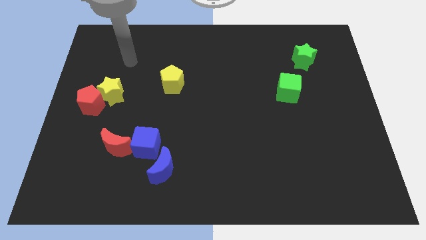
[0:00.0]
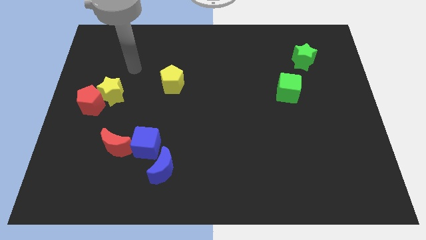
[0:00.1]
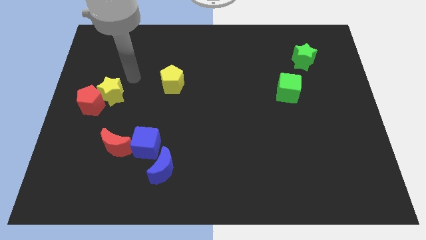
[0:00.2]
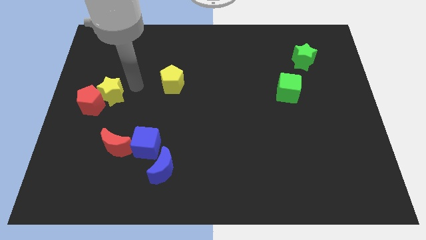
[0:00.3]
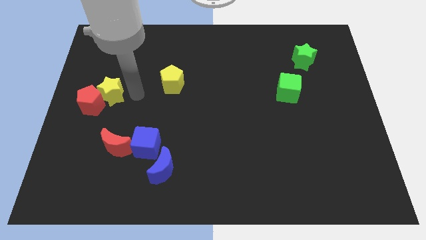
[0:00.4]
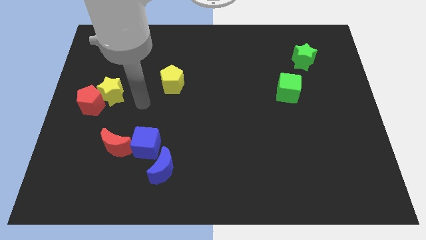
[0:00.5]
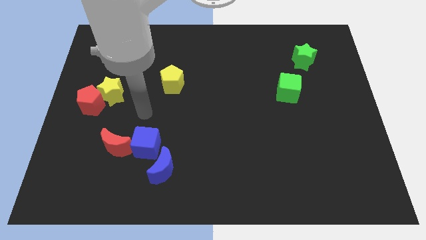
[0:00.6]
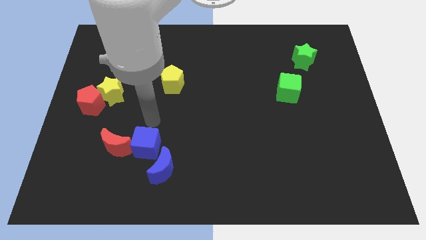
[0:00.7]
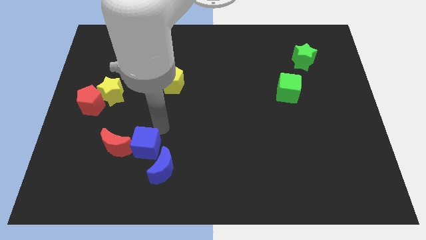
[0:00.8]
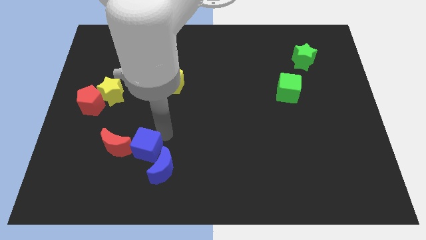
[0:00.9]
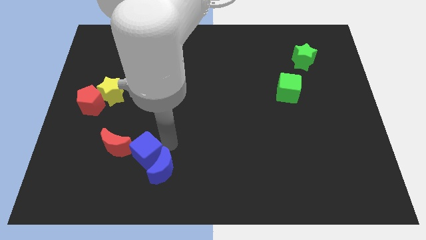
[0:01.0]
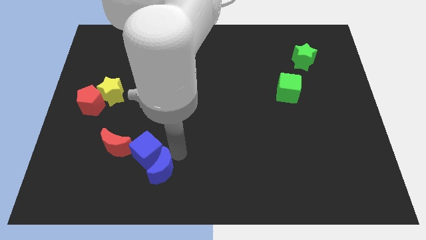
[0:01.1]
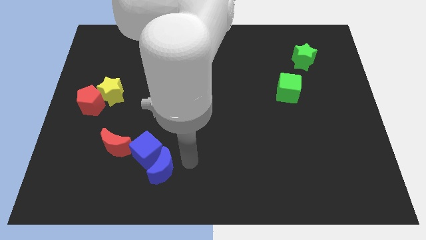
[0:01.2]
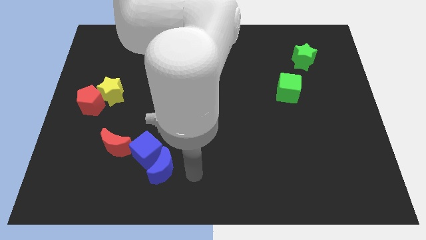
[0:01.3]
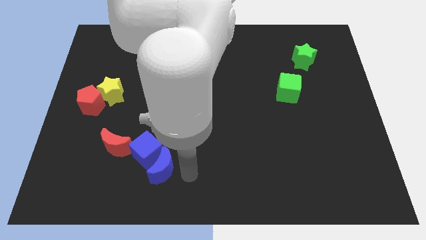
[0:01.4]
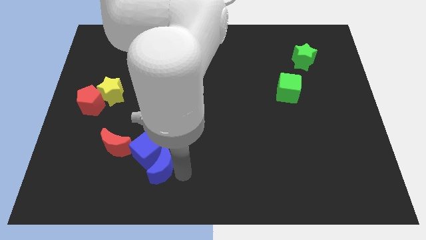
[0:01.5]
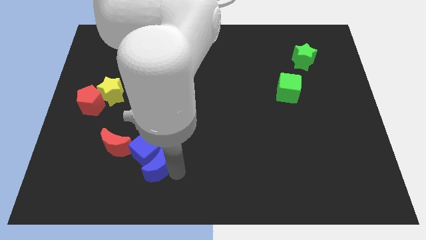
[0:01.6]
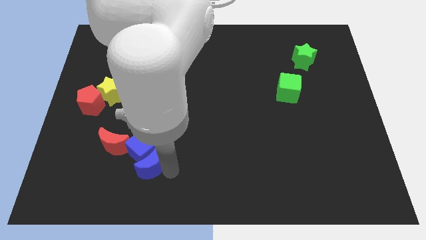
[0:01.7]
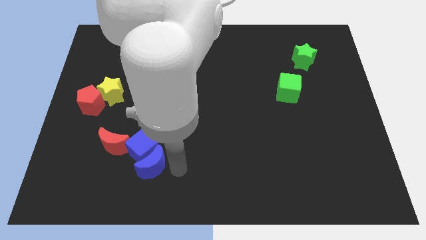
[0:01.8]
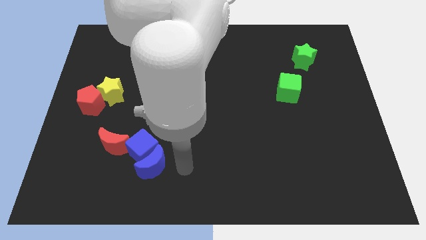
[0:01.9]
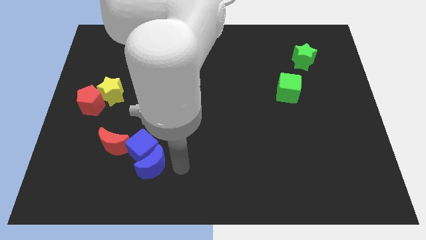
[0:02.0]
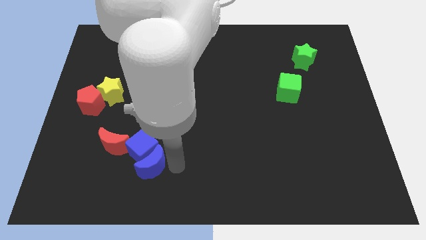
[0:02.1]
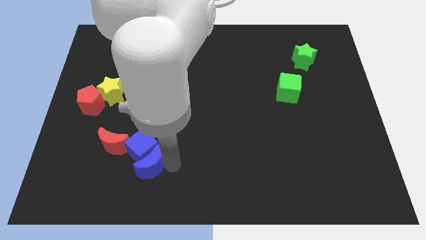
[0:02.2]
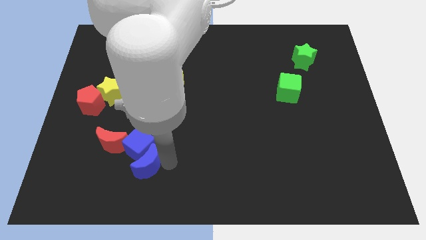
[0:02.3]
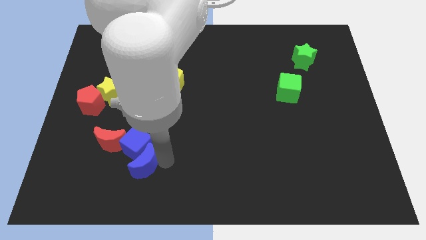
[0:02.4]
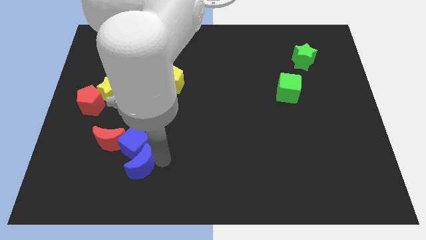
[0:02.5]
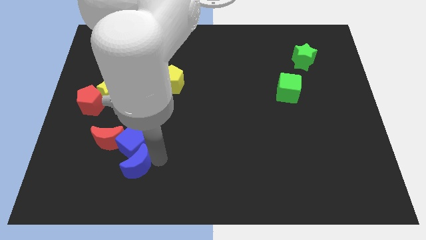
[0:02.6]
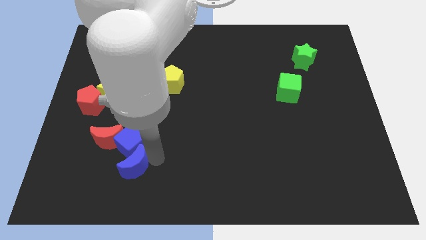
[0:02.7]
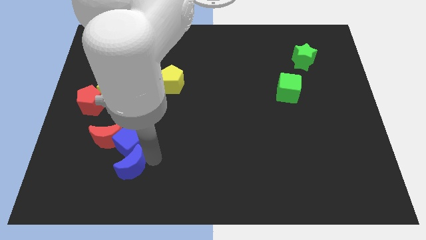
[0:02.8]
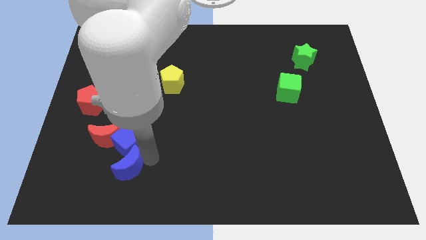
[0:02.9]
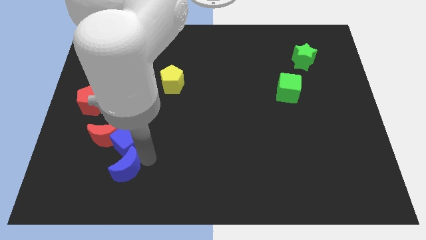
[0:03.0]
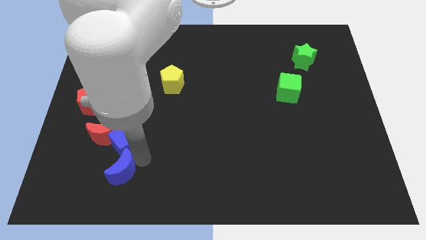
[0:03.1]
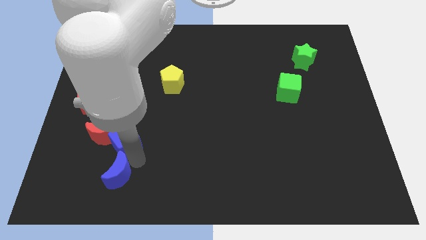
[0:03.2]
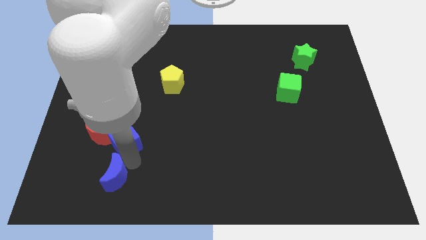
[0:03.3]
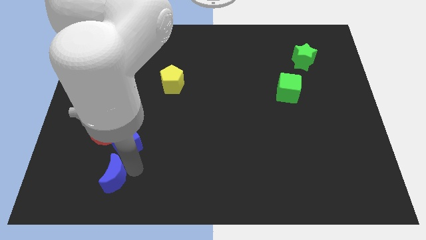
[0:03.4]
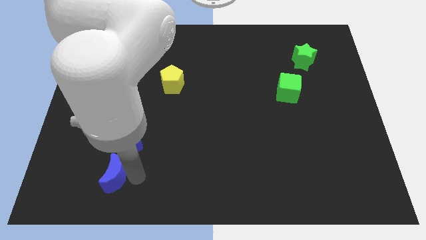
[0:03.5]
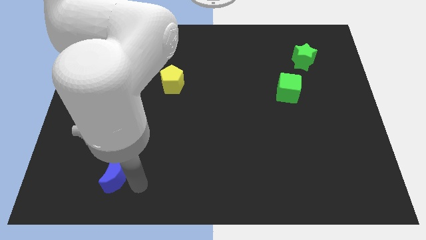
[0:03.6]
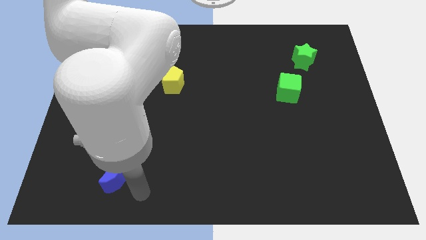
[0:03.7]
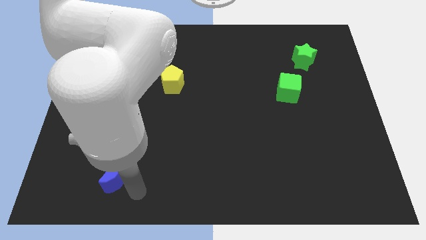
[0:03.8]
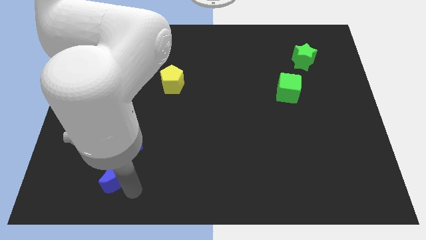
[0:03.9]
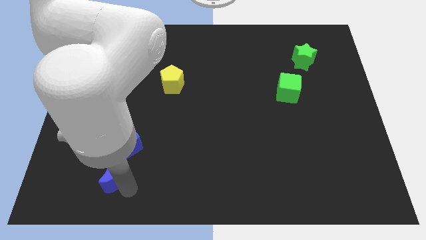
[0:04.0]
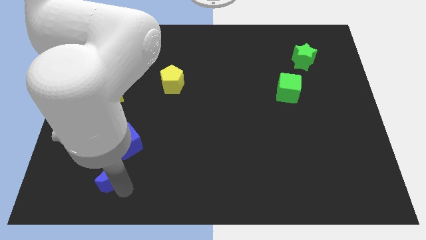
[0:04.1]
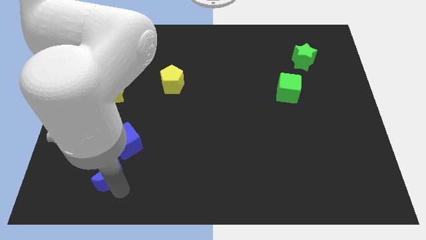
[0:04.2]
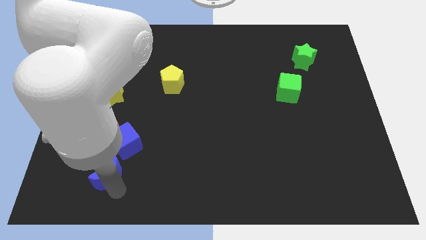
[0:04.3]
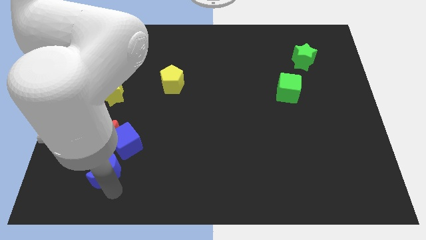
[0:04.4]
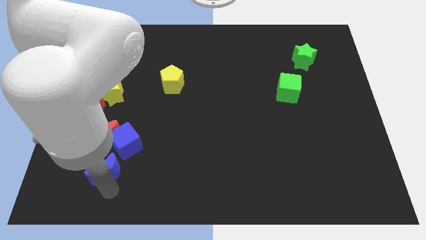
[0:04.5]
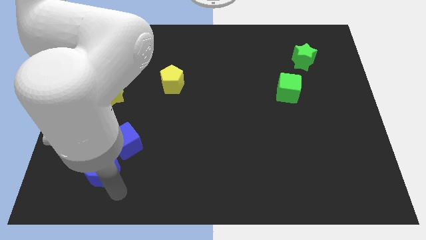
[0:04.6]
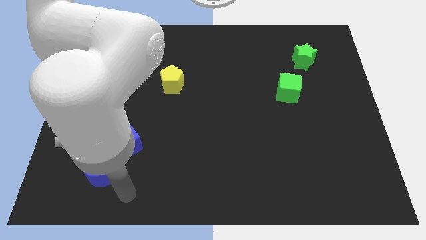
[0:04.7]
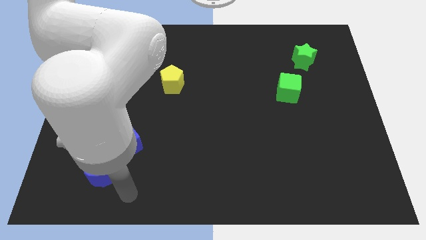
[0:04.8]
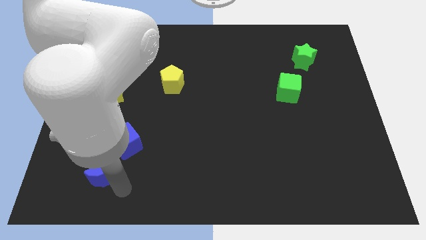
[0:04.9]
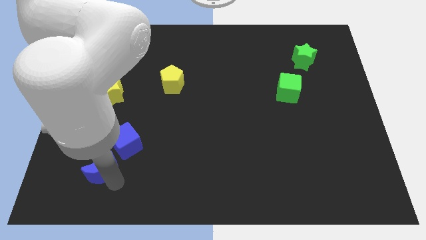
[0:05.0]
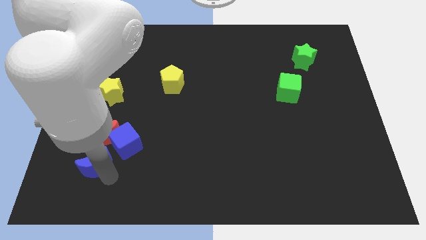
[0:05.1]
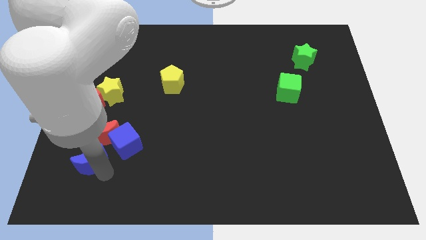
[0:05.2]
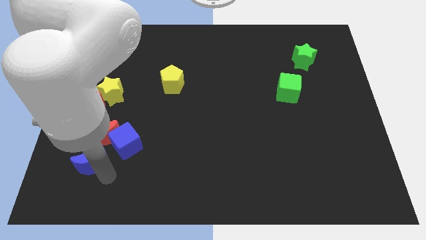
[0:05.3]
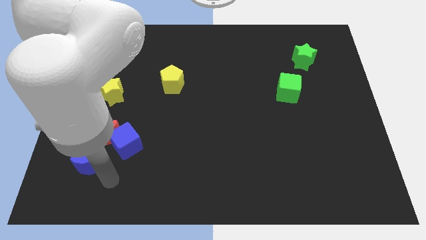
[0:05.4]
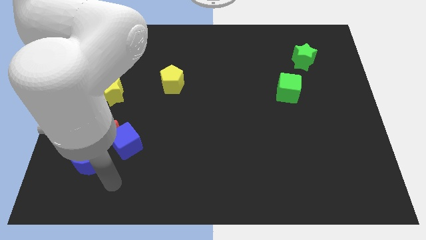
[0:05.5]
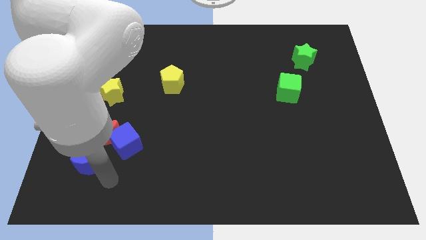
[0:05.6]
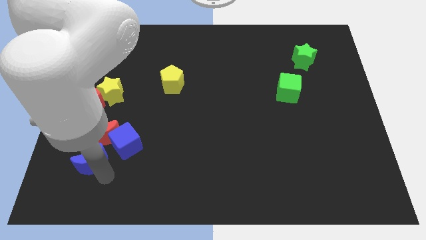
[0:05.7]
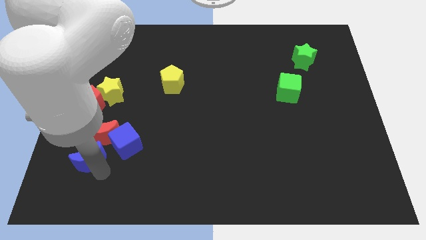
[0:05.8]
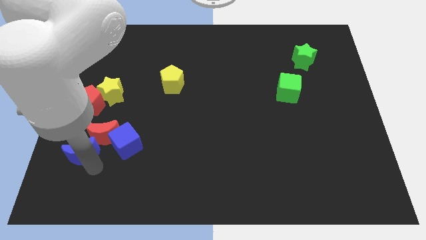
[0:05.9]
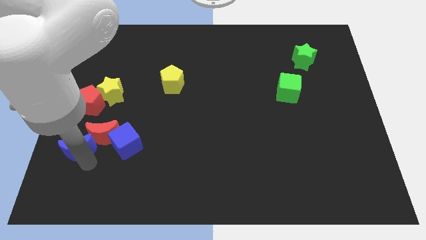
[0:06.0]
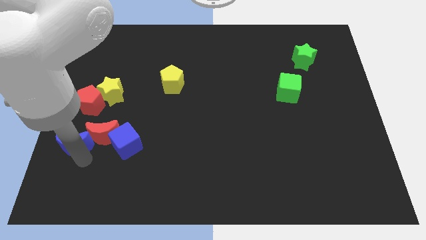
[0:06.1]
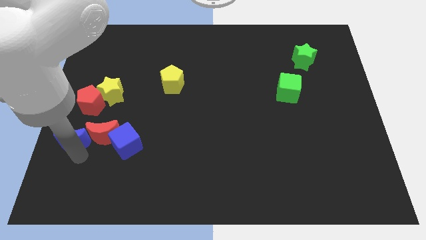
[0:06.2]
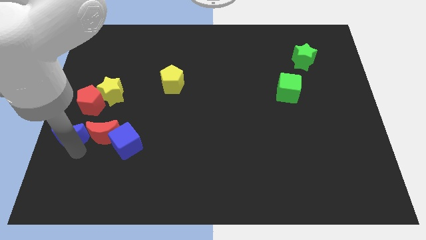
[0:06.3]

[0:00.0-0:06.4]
push the blue moon to the left side of the board
